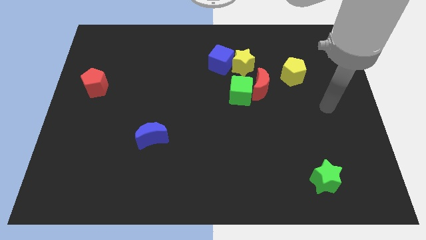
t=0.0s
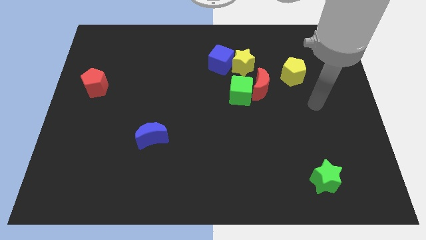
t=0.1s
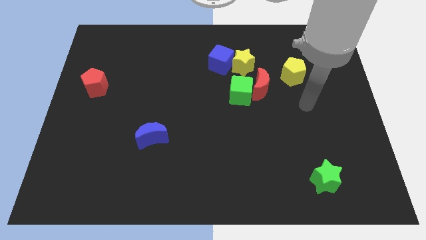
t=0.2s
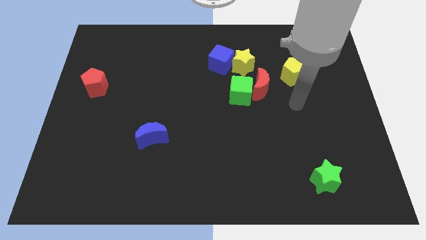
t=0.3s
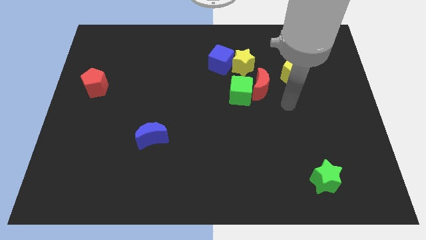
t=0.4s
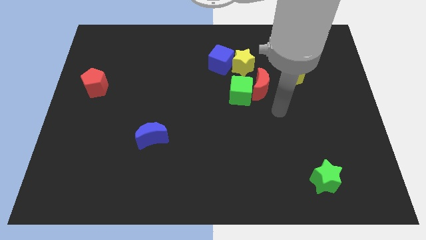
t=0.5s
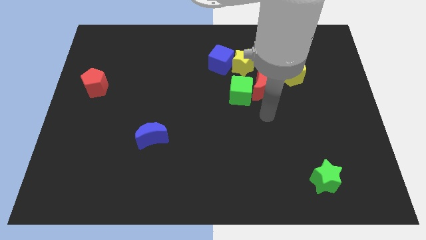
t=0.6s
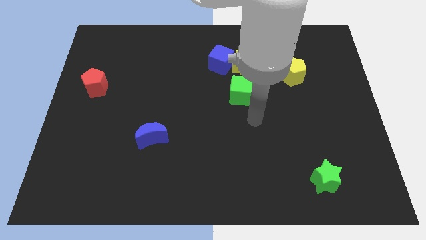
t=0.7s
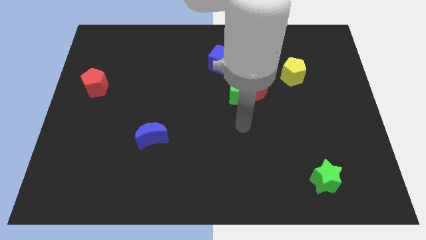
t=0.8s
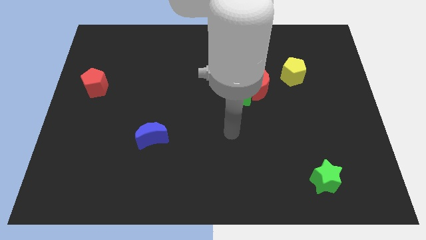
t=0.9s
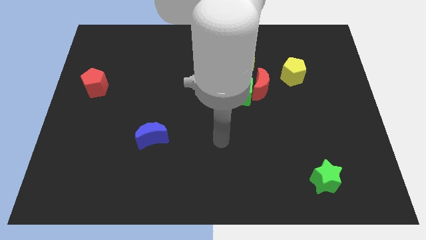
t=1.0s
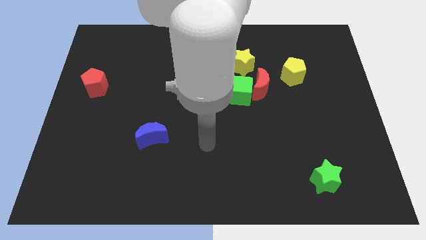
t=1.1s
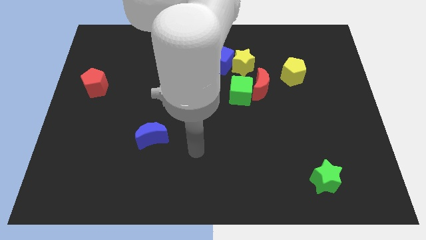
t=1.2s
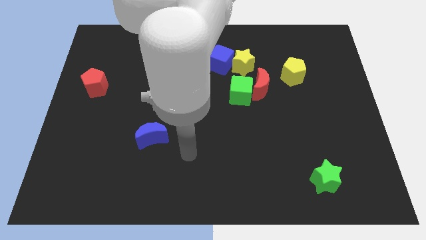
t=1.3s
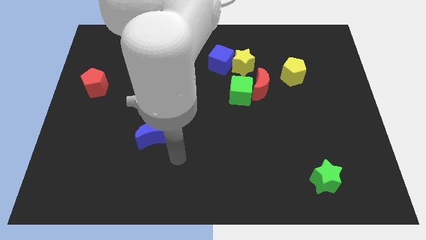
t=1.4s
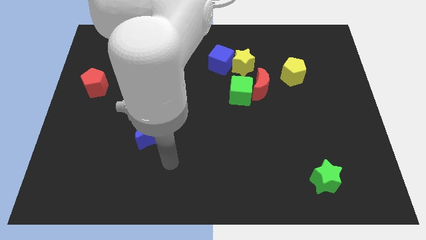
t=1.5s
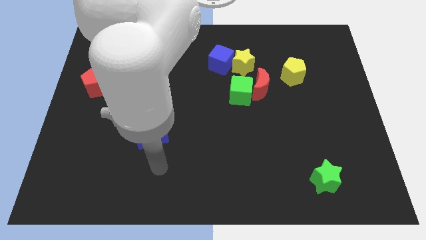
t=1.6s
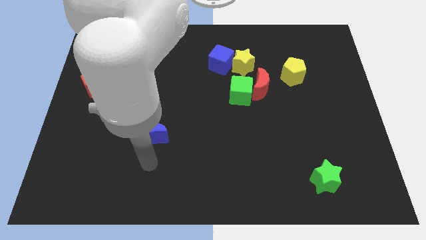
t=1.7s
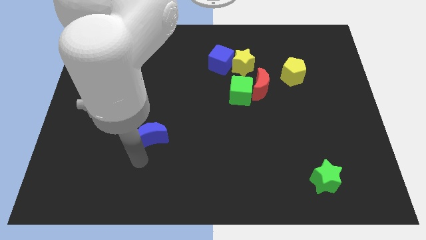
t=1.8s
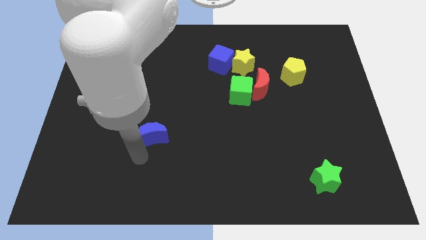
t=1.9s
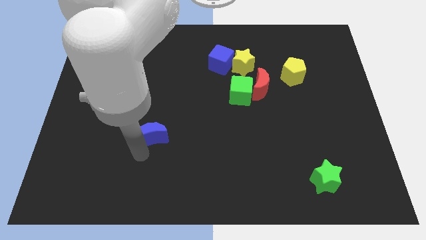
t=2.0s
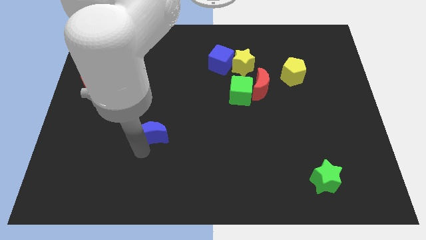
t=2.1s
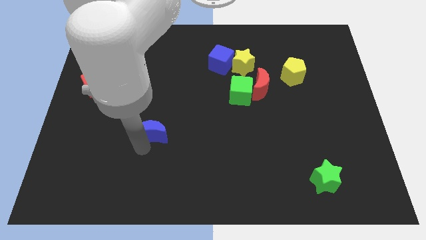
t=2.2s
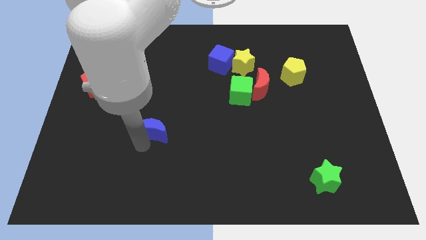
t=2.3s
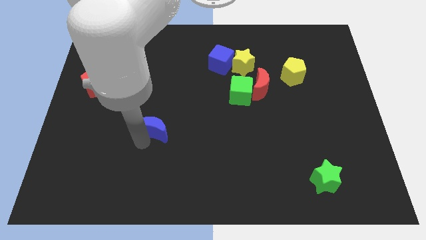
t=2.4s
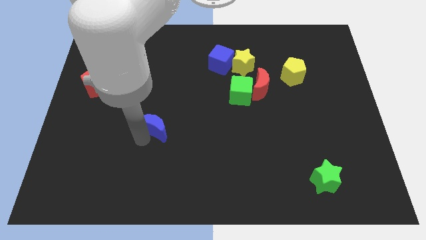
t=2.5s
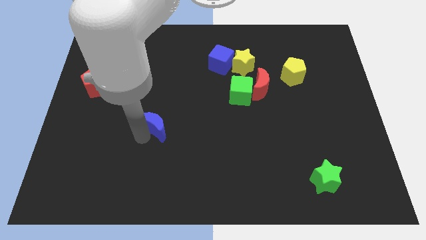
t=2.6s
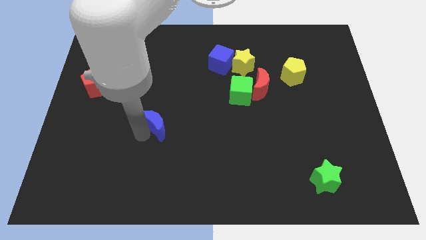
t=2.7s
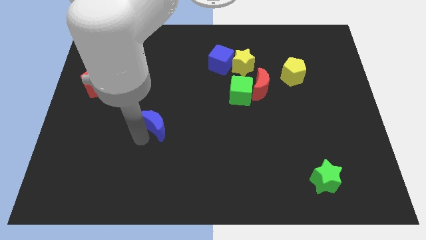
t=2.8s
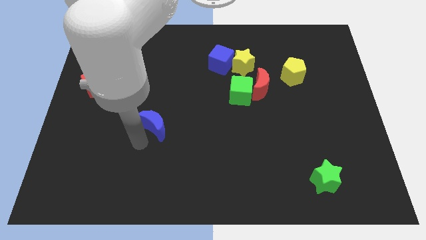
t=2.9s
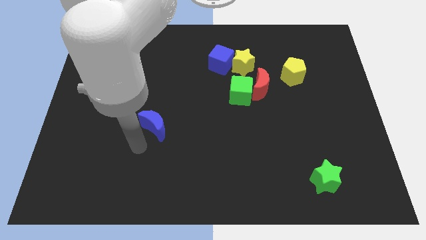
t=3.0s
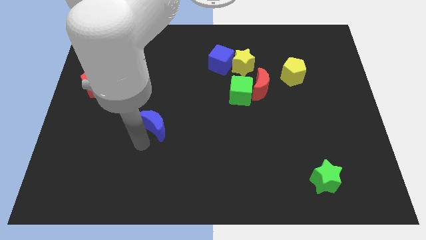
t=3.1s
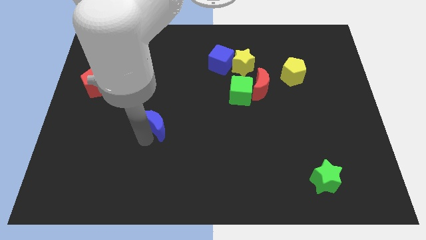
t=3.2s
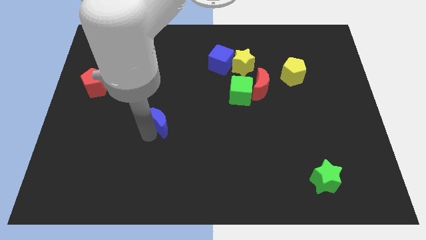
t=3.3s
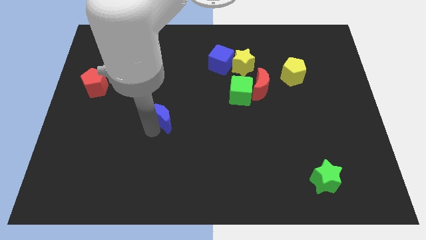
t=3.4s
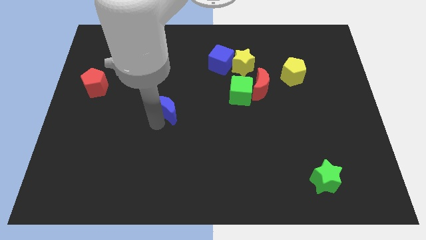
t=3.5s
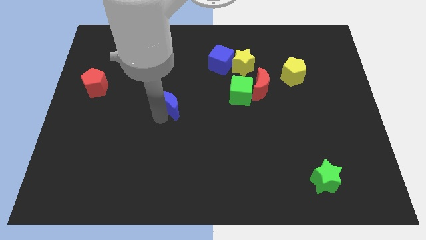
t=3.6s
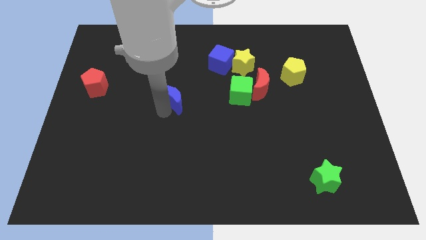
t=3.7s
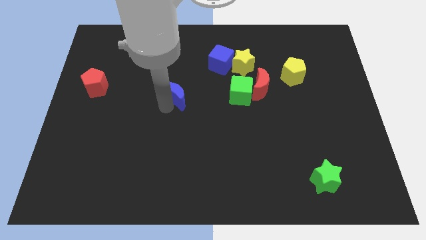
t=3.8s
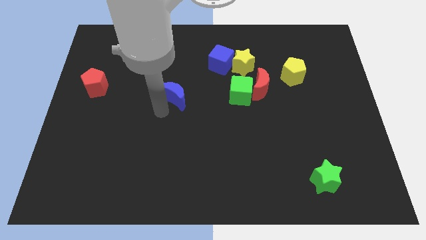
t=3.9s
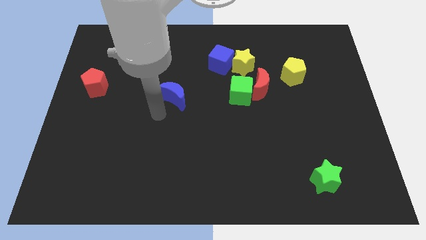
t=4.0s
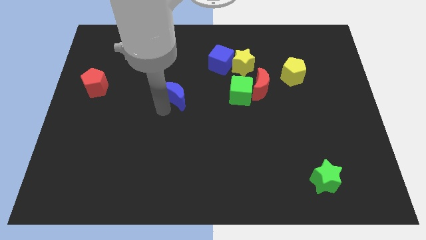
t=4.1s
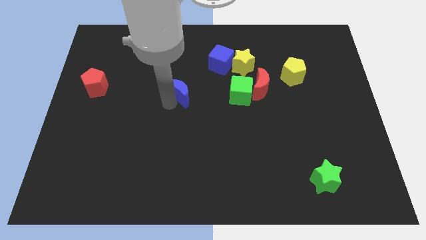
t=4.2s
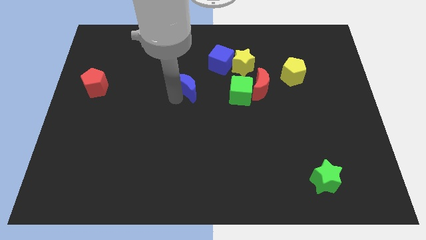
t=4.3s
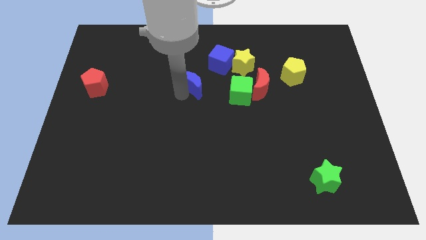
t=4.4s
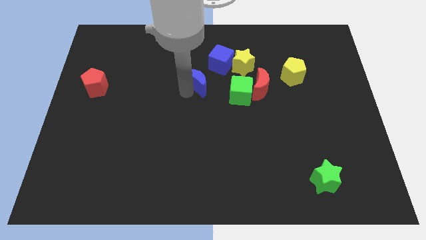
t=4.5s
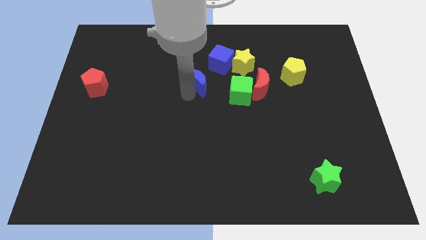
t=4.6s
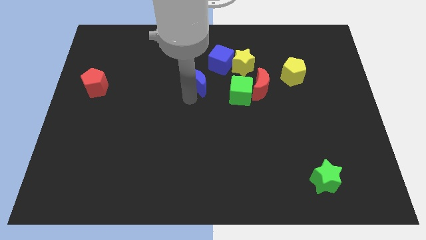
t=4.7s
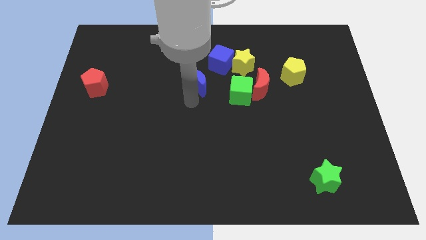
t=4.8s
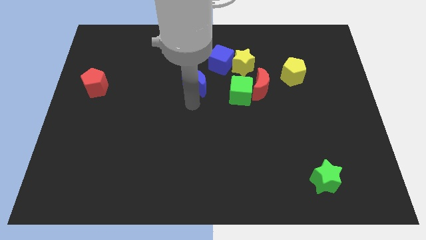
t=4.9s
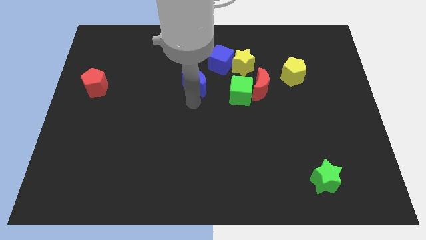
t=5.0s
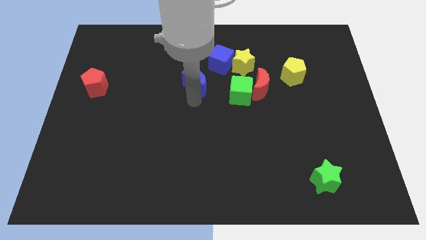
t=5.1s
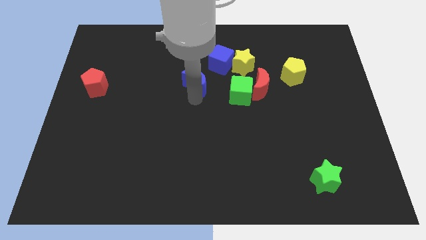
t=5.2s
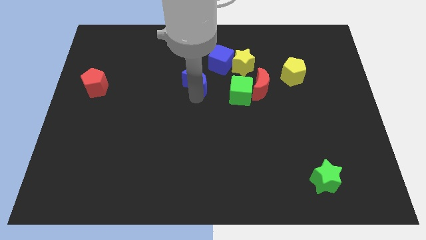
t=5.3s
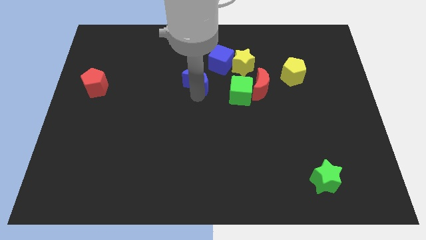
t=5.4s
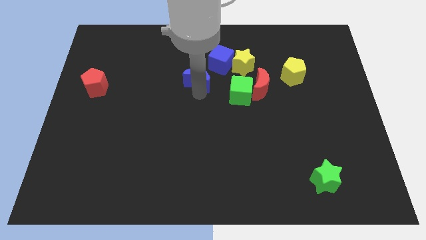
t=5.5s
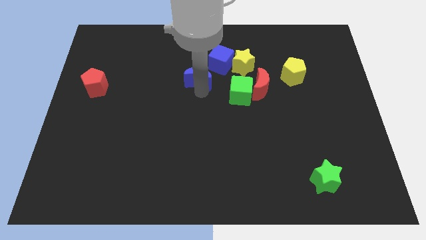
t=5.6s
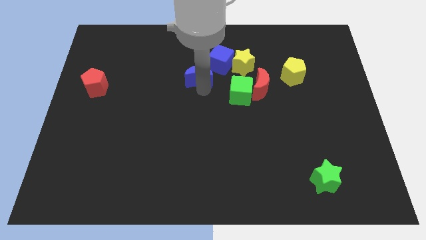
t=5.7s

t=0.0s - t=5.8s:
slide the blue moon to the left of the yellow star
